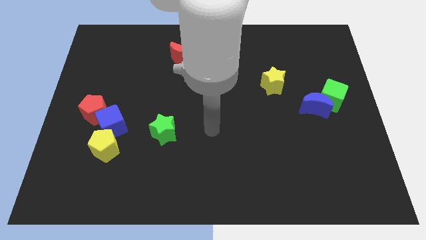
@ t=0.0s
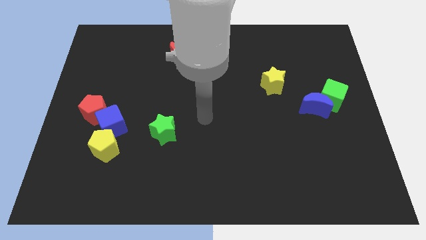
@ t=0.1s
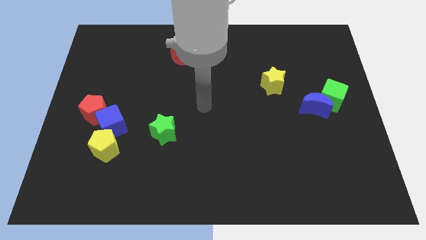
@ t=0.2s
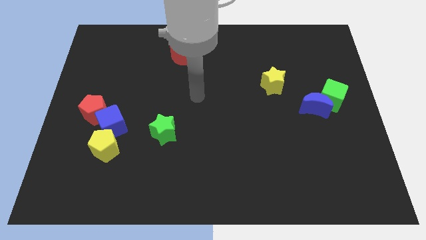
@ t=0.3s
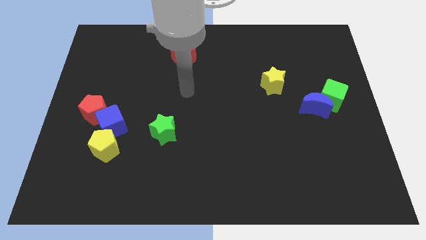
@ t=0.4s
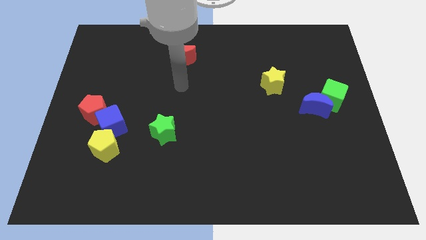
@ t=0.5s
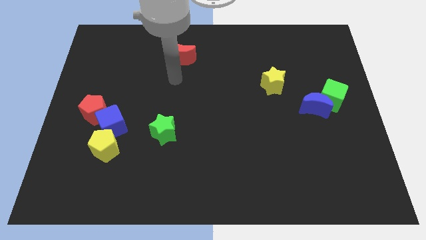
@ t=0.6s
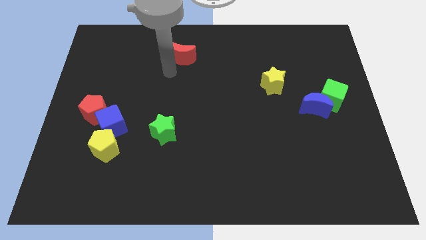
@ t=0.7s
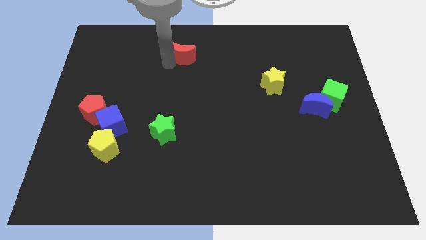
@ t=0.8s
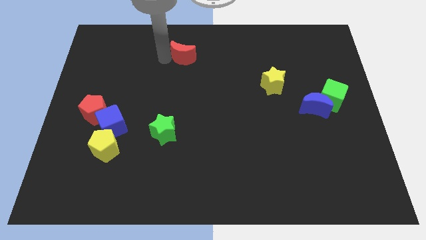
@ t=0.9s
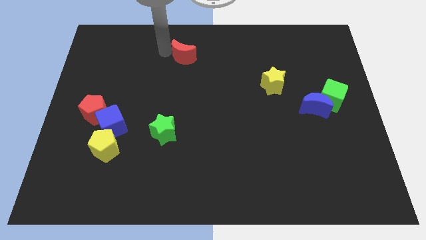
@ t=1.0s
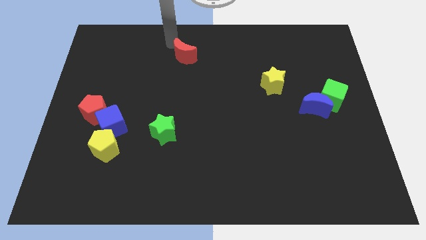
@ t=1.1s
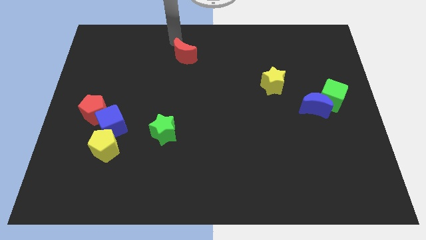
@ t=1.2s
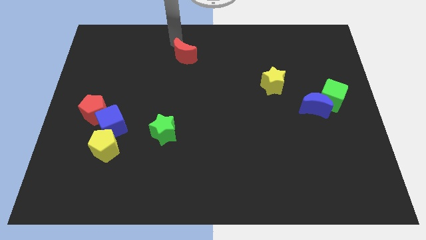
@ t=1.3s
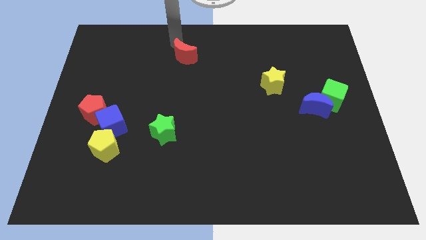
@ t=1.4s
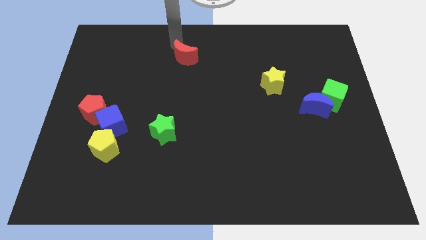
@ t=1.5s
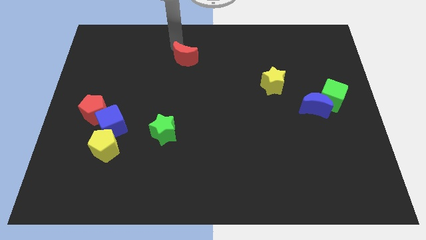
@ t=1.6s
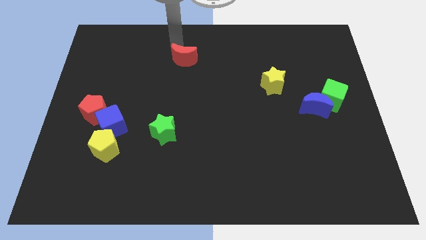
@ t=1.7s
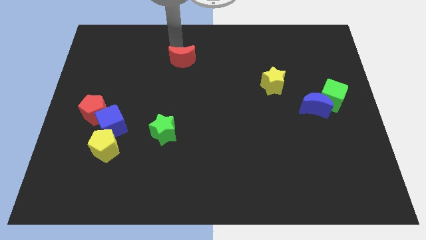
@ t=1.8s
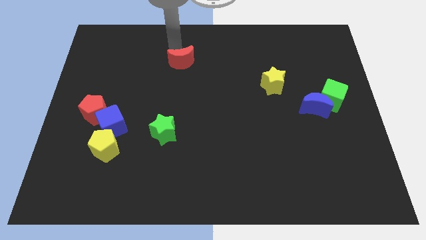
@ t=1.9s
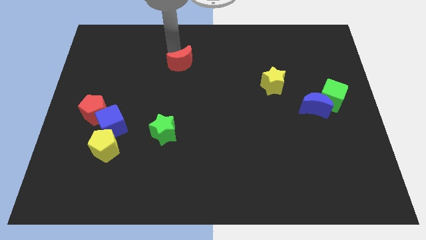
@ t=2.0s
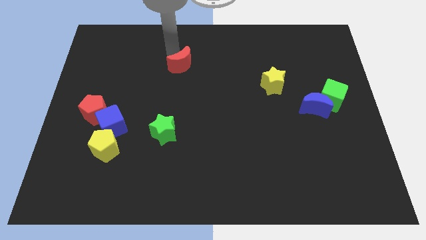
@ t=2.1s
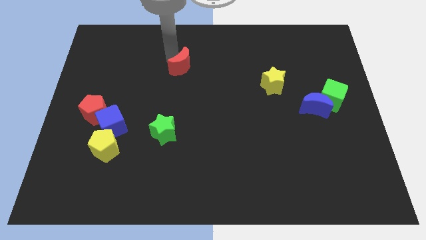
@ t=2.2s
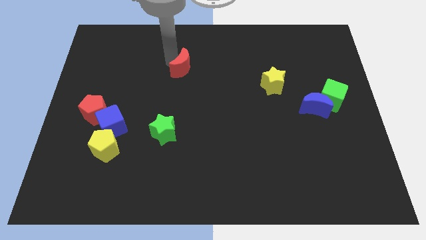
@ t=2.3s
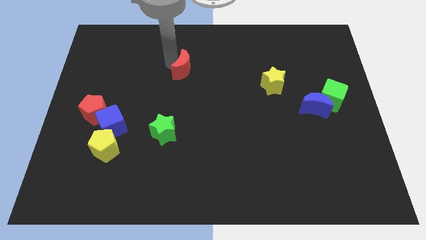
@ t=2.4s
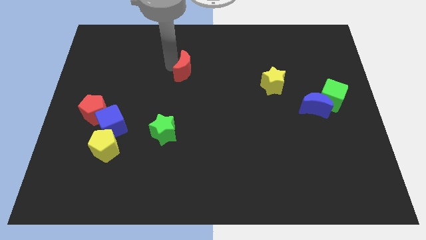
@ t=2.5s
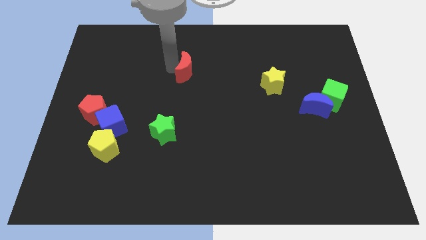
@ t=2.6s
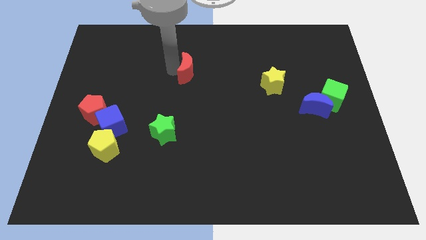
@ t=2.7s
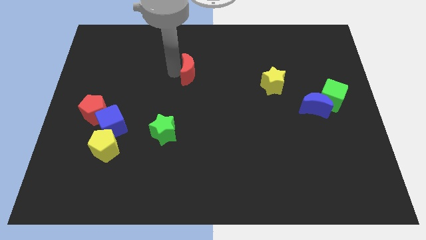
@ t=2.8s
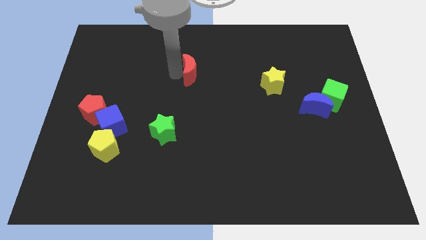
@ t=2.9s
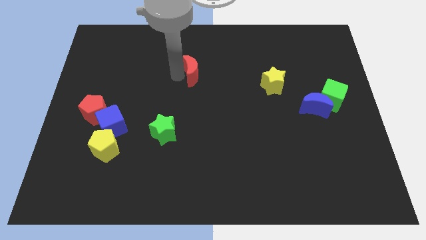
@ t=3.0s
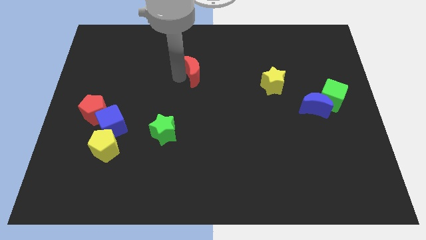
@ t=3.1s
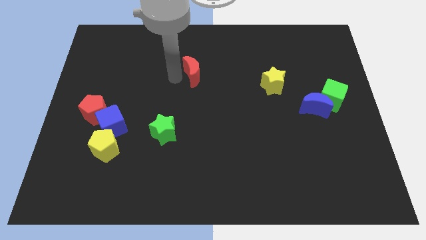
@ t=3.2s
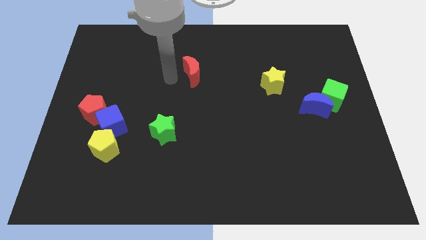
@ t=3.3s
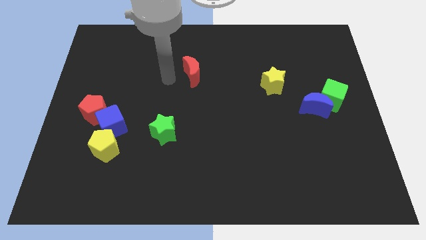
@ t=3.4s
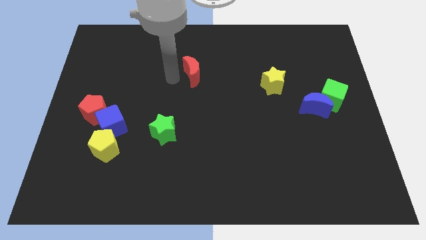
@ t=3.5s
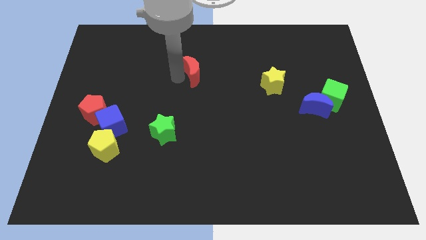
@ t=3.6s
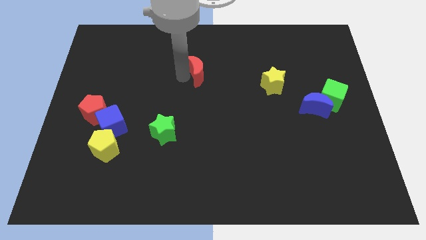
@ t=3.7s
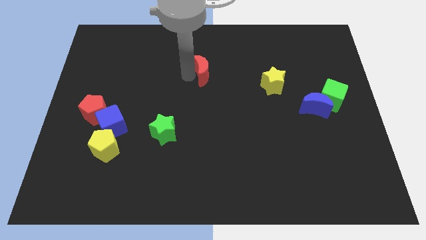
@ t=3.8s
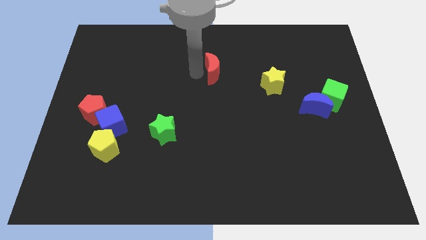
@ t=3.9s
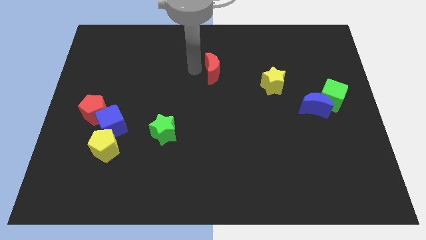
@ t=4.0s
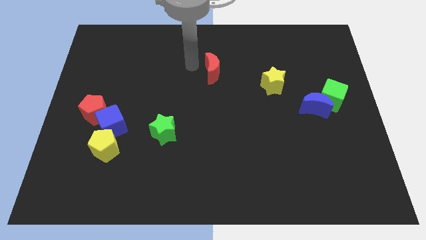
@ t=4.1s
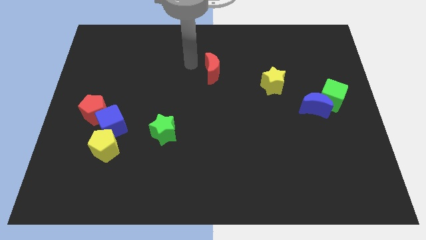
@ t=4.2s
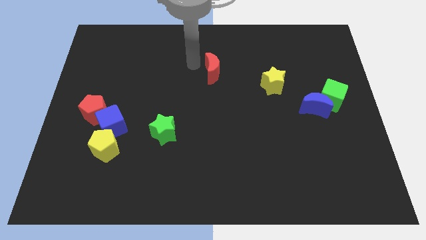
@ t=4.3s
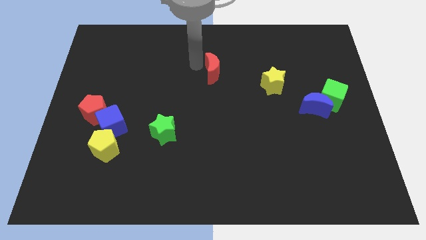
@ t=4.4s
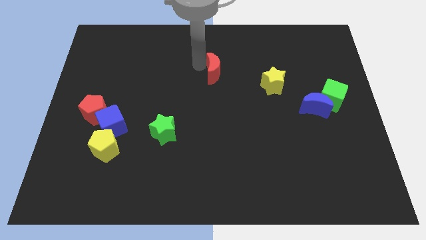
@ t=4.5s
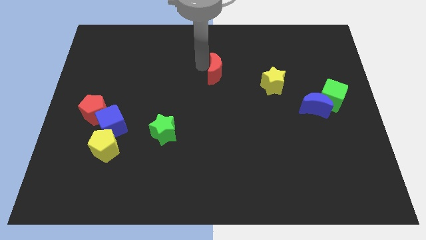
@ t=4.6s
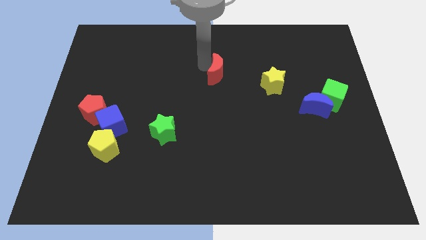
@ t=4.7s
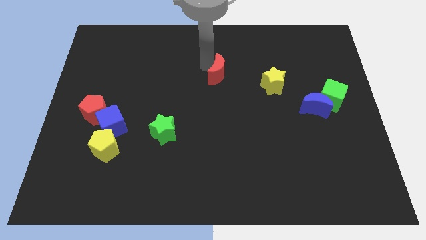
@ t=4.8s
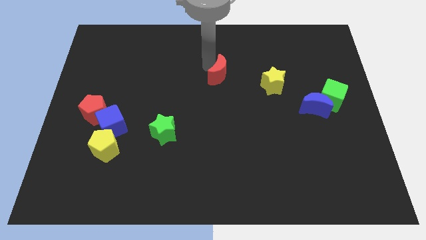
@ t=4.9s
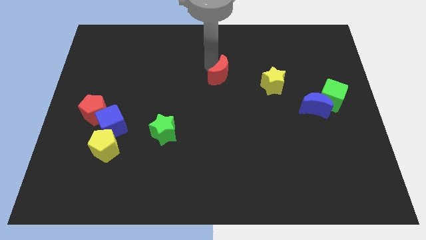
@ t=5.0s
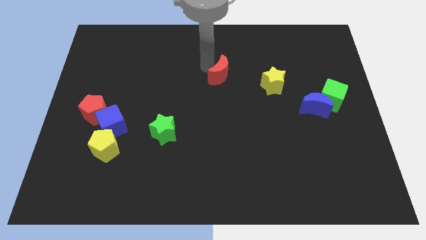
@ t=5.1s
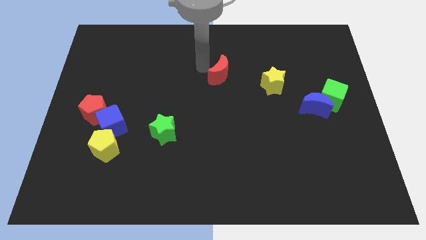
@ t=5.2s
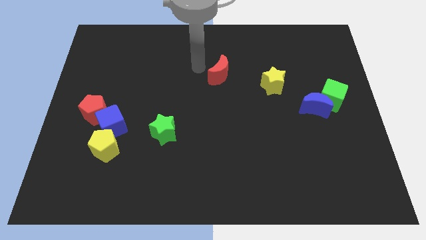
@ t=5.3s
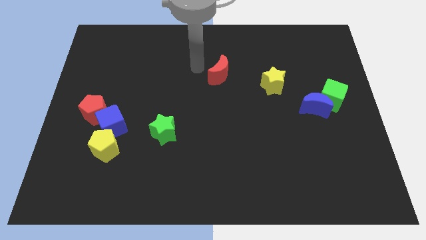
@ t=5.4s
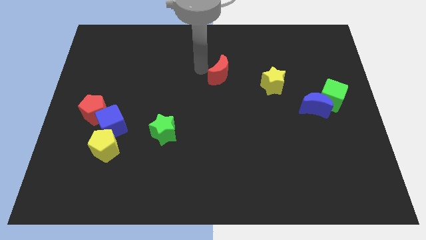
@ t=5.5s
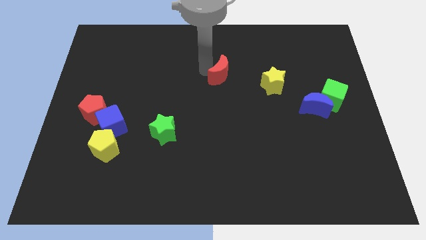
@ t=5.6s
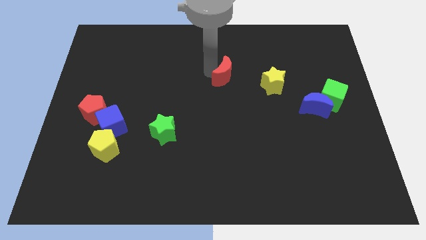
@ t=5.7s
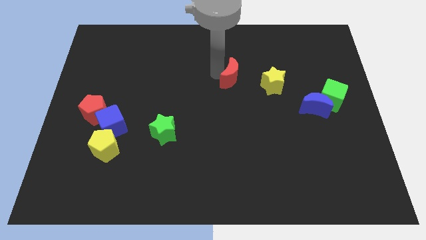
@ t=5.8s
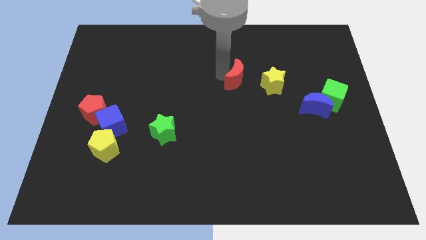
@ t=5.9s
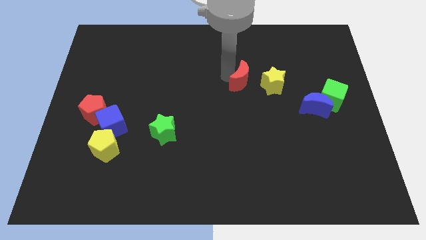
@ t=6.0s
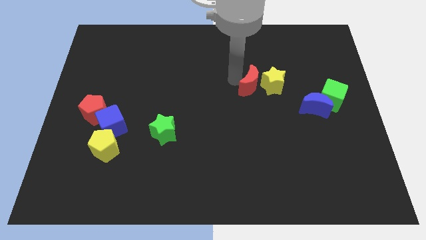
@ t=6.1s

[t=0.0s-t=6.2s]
slide the red moon to the yellow star

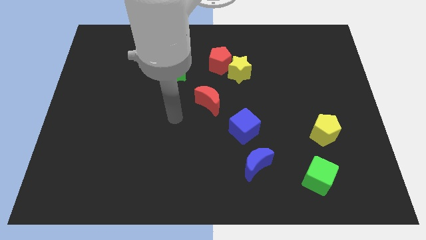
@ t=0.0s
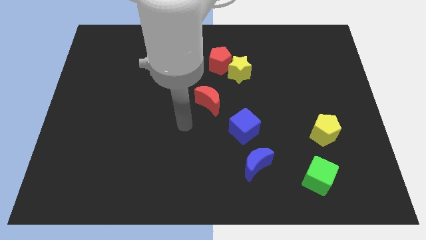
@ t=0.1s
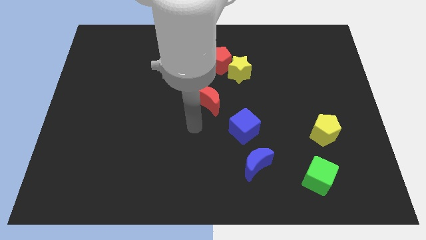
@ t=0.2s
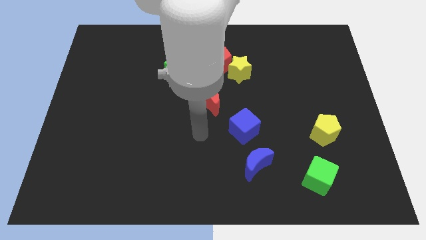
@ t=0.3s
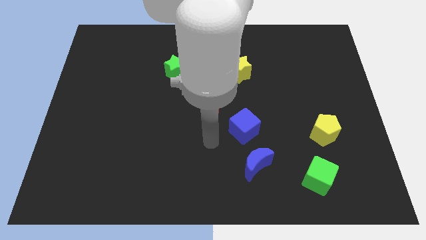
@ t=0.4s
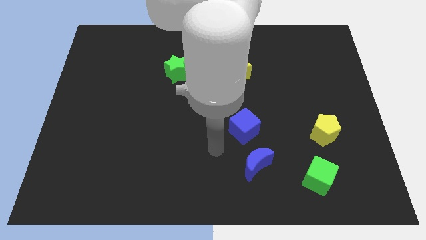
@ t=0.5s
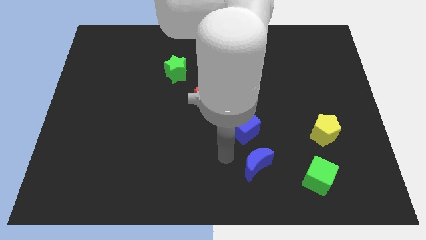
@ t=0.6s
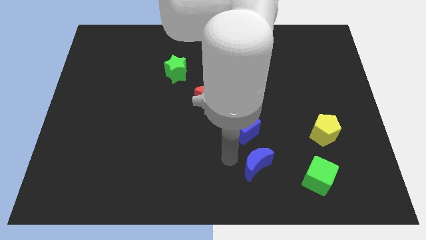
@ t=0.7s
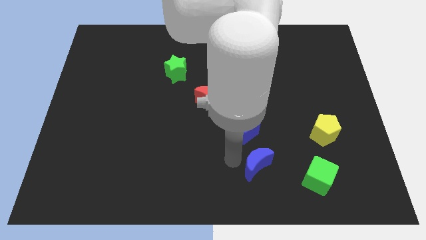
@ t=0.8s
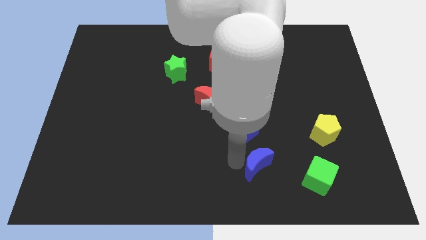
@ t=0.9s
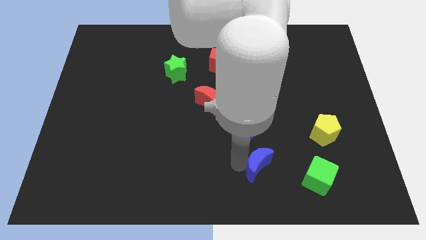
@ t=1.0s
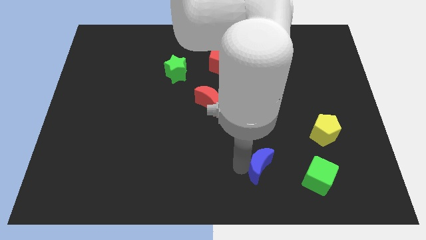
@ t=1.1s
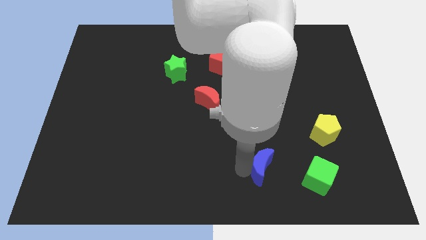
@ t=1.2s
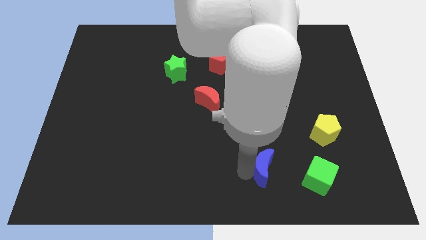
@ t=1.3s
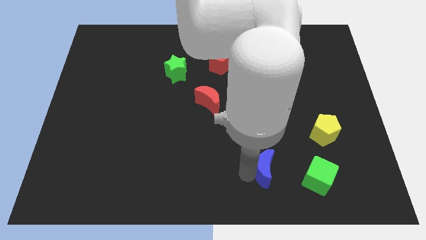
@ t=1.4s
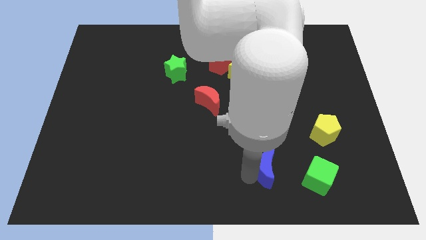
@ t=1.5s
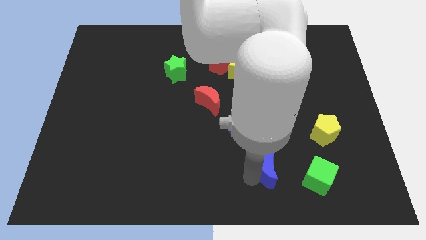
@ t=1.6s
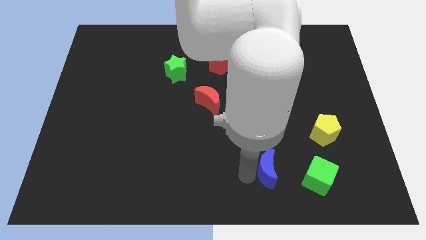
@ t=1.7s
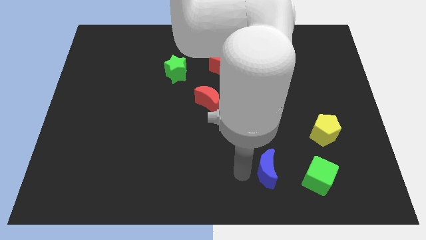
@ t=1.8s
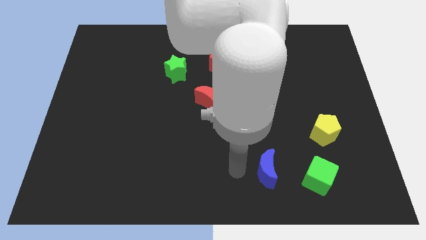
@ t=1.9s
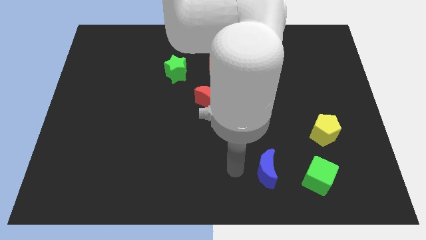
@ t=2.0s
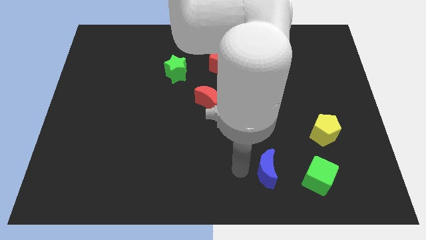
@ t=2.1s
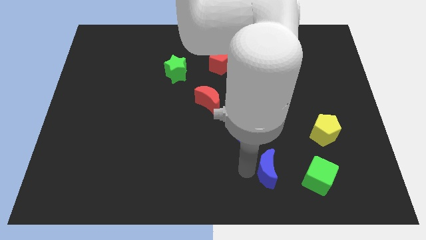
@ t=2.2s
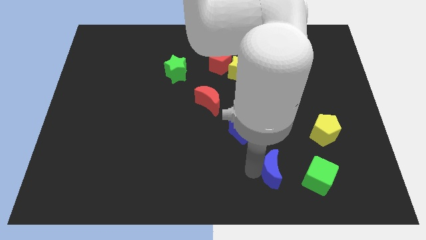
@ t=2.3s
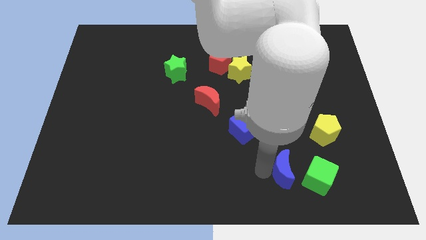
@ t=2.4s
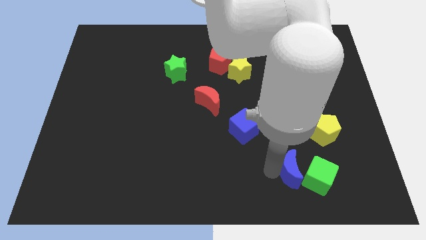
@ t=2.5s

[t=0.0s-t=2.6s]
put the blue moon towards the green cube
